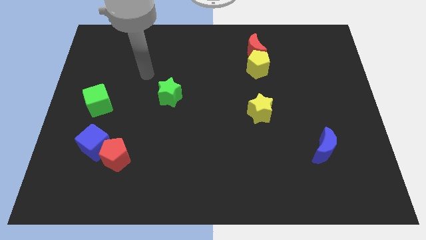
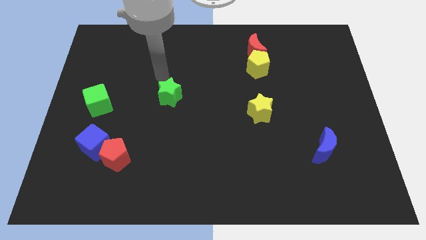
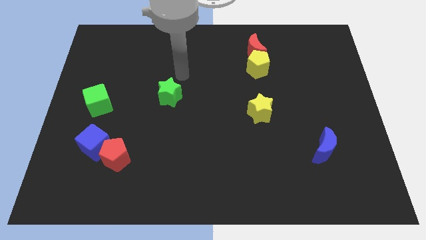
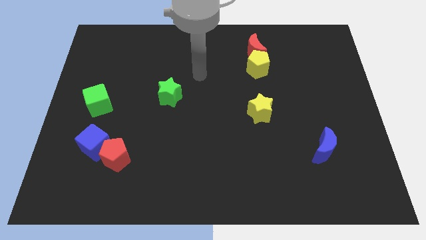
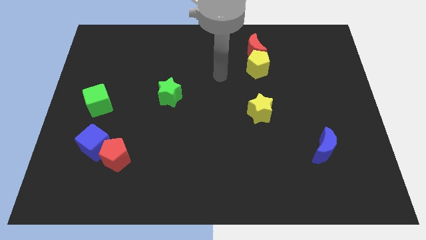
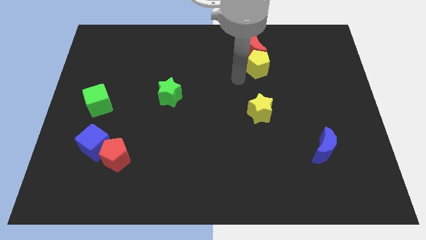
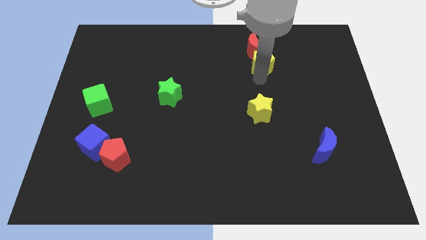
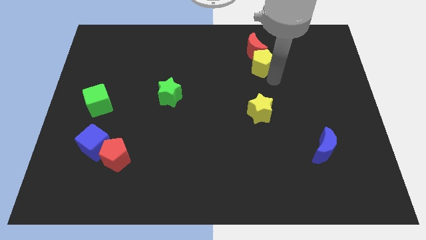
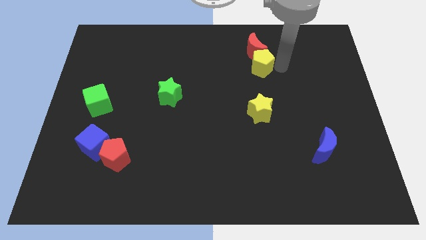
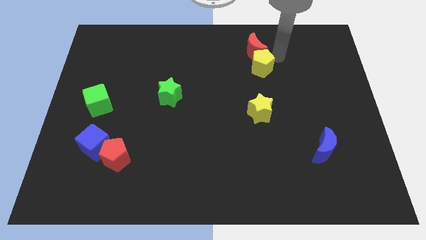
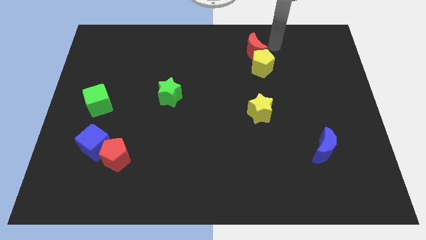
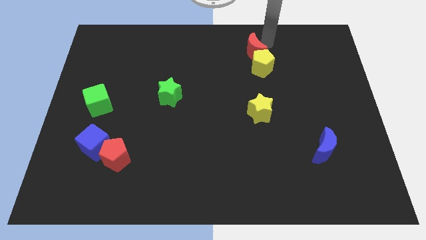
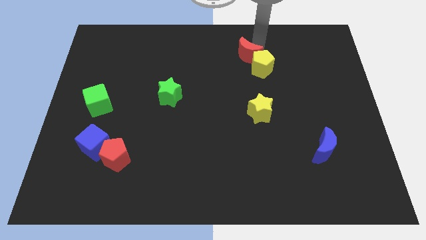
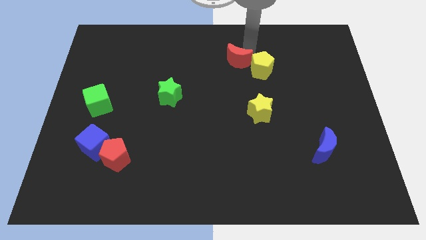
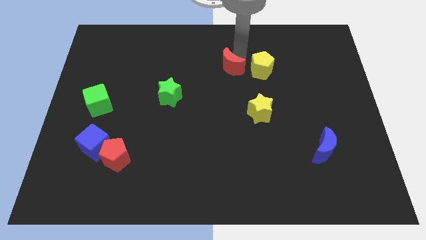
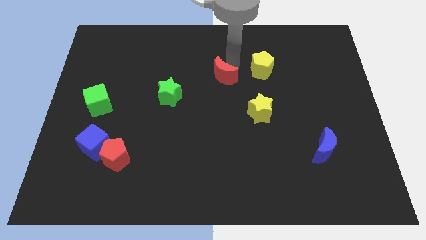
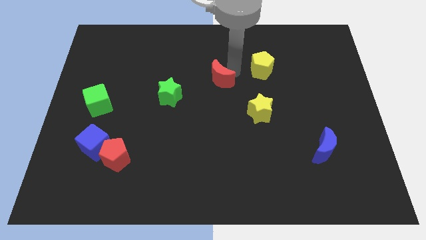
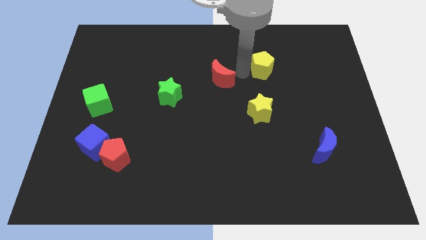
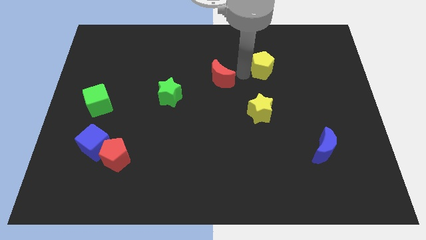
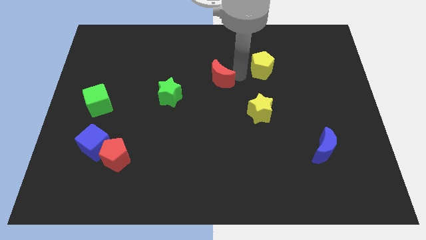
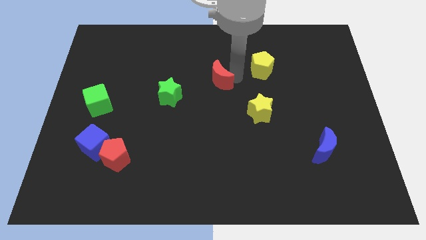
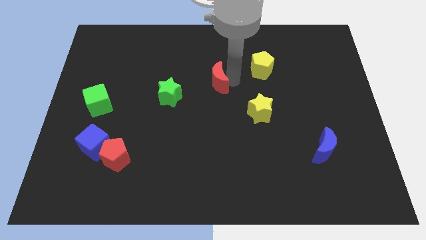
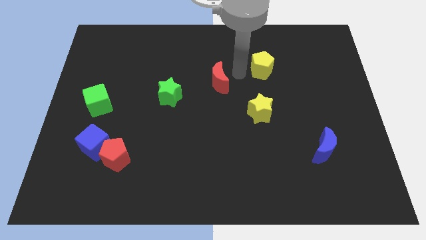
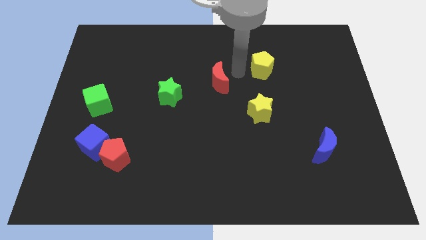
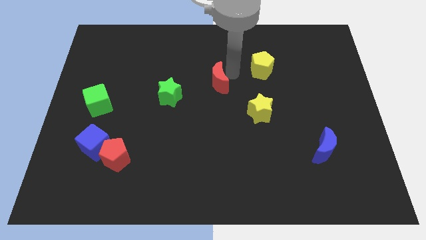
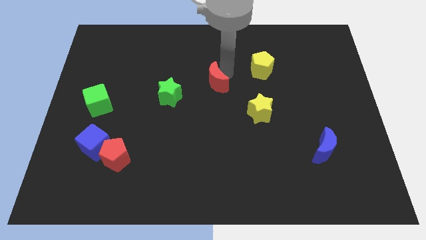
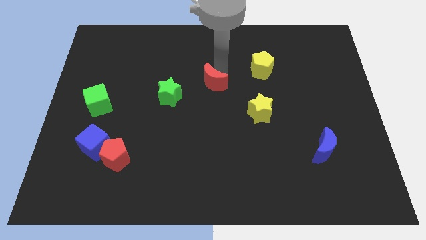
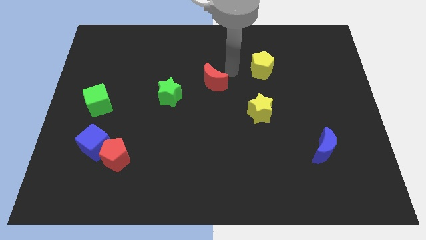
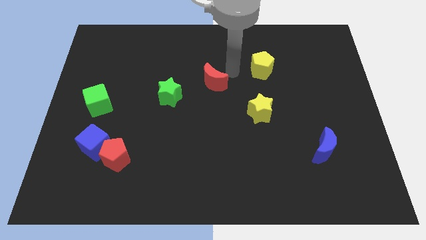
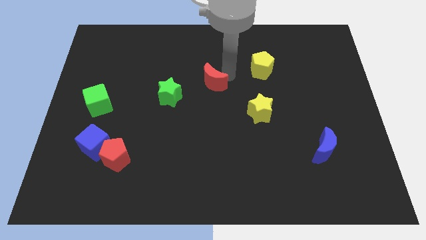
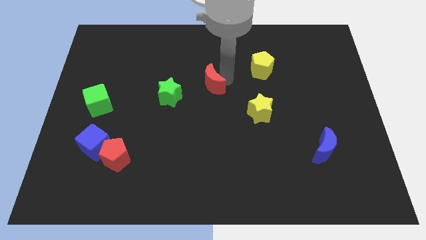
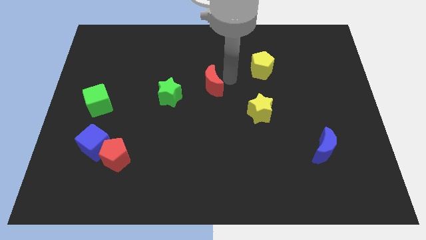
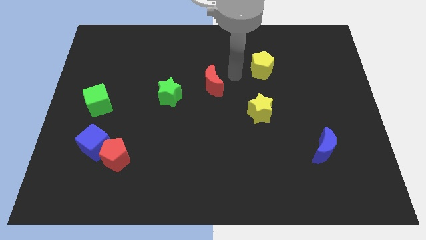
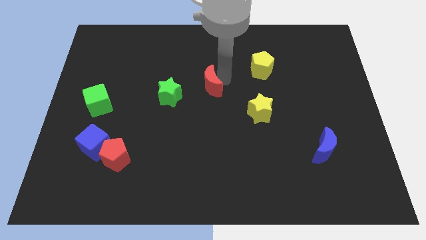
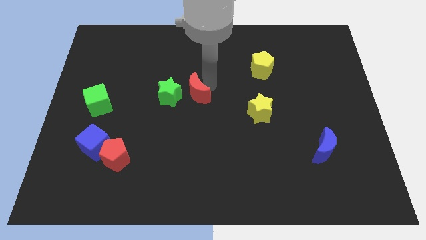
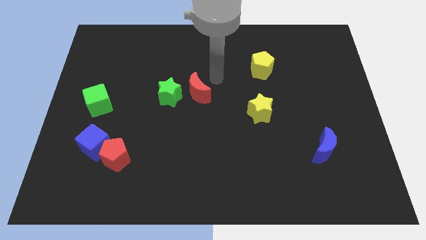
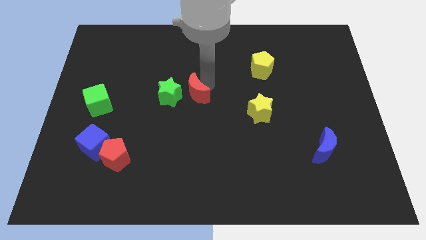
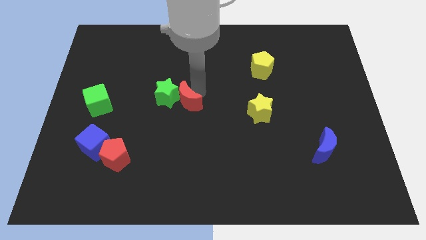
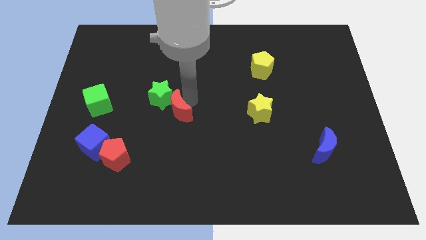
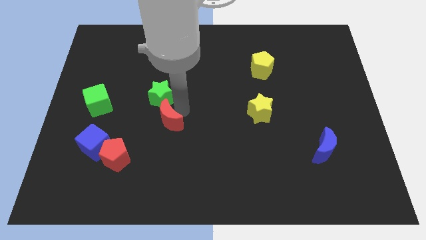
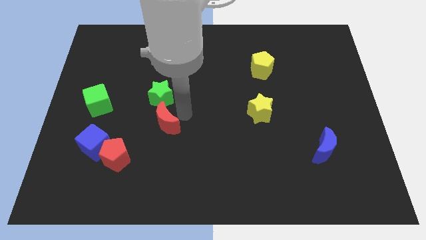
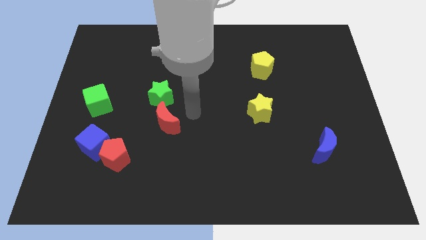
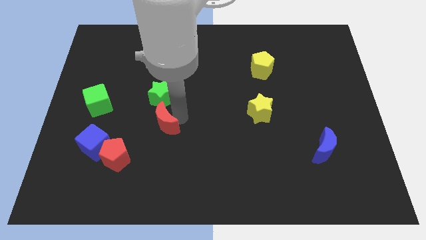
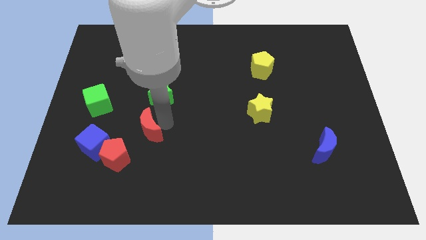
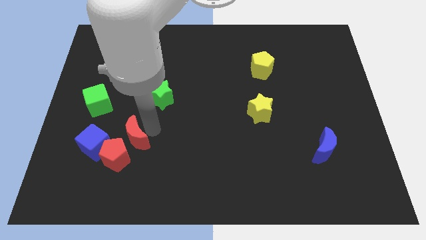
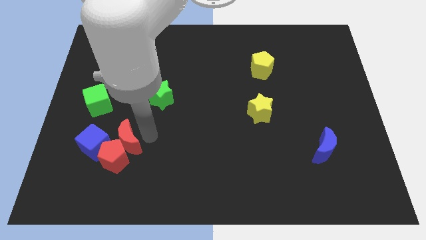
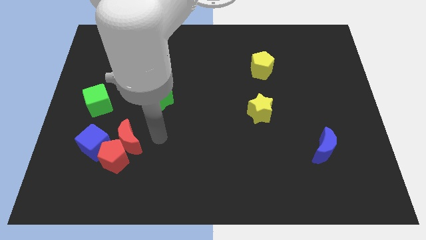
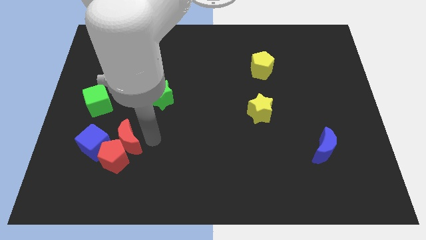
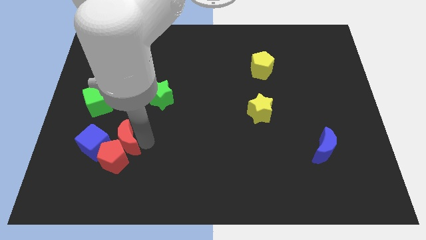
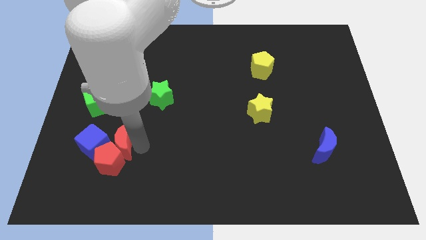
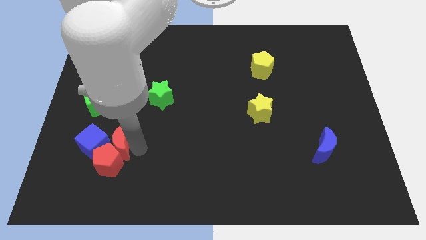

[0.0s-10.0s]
push the red moon close to the blue cube

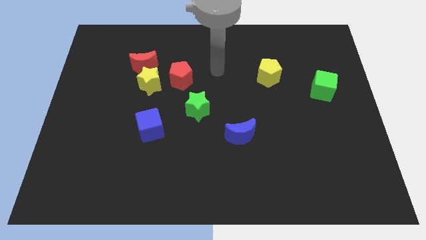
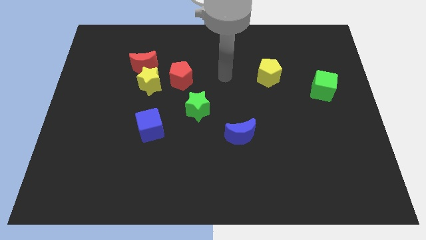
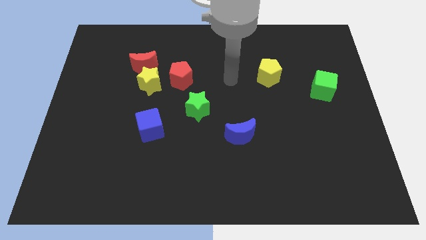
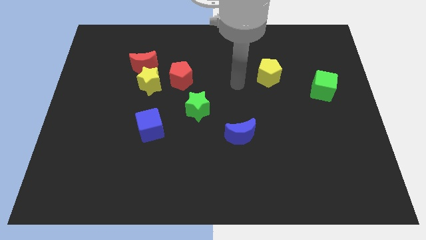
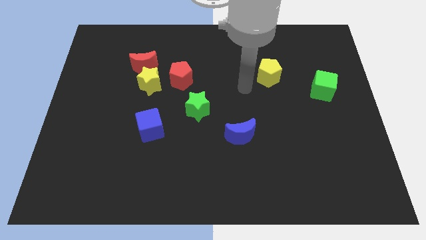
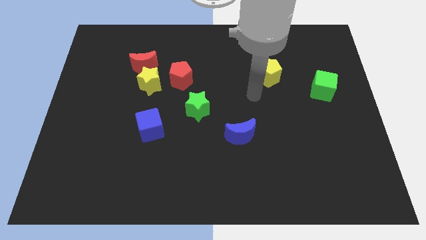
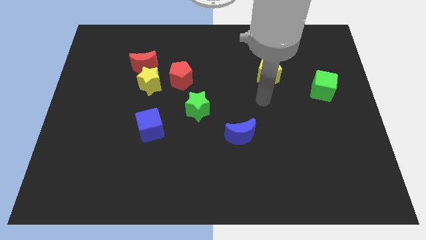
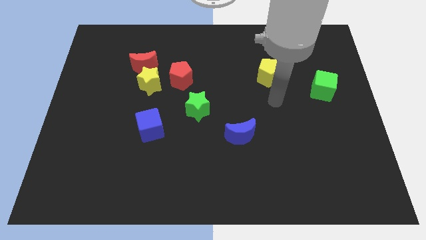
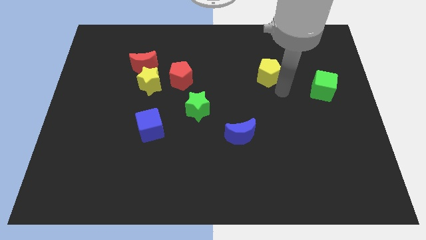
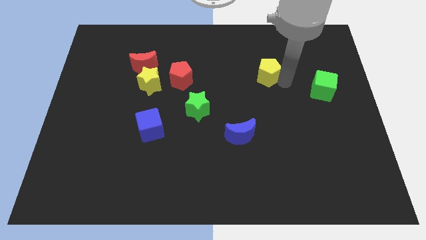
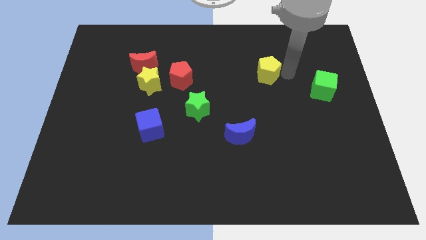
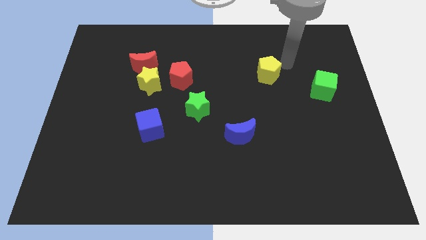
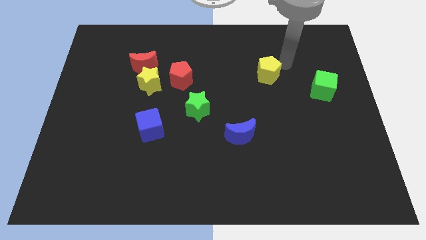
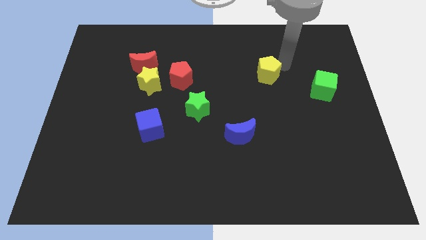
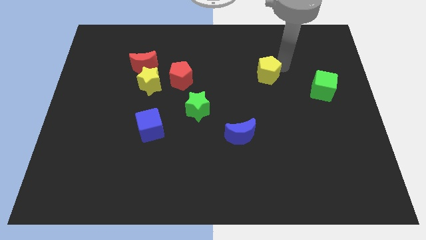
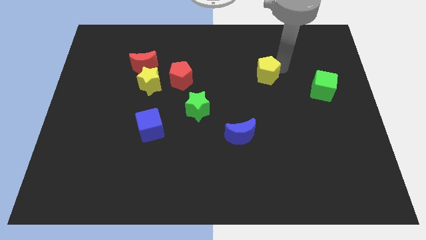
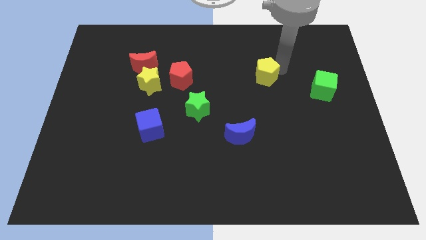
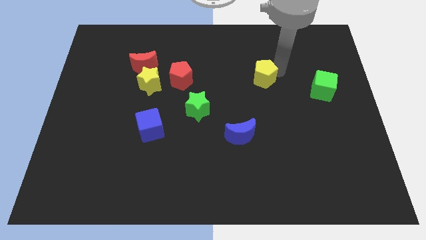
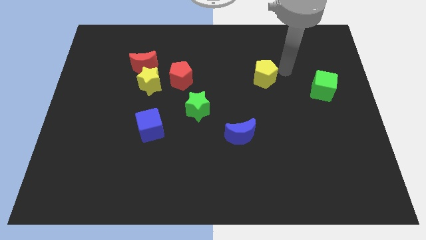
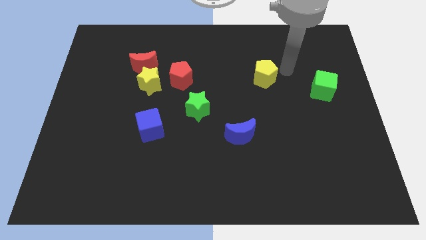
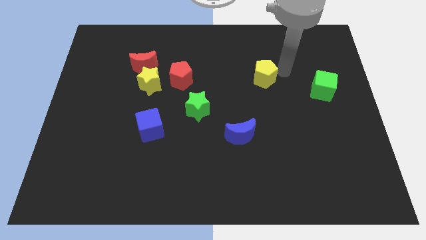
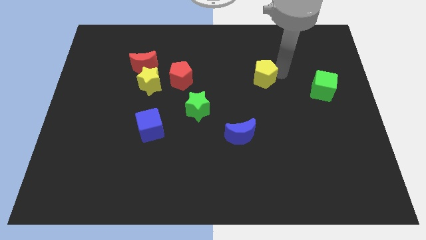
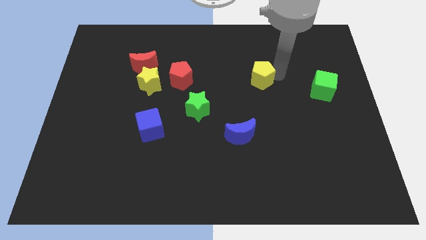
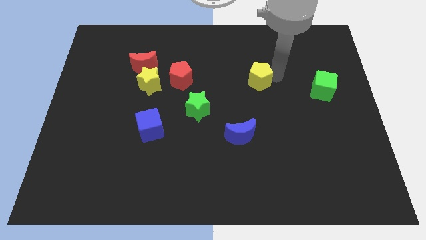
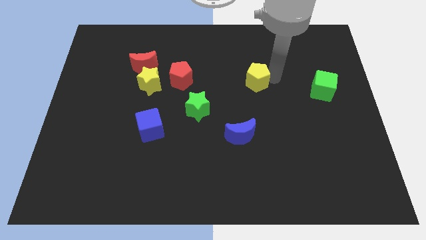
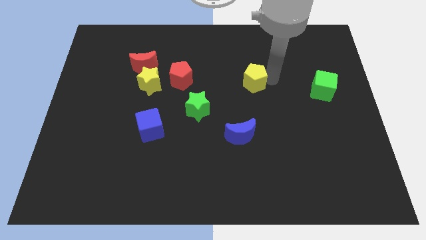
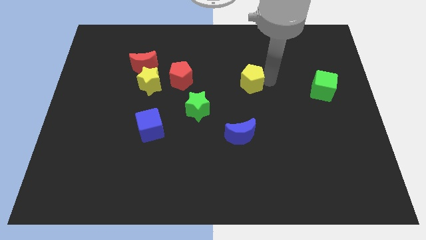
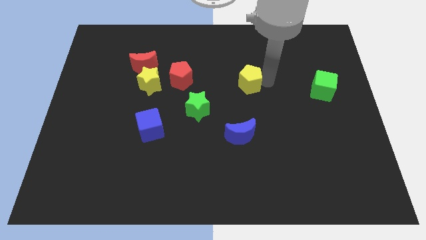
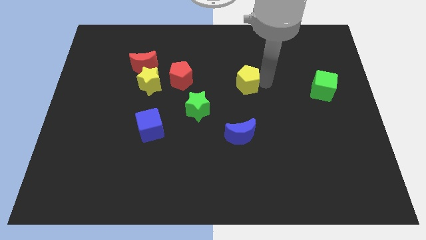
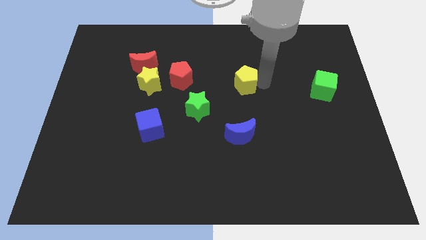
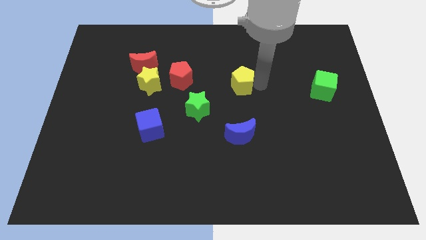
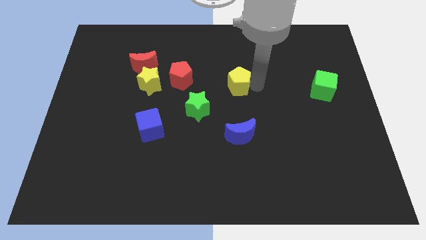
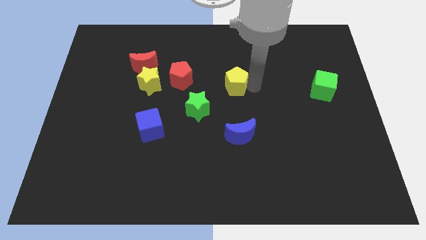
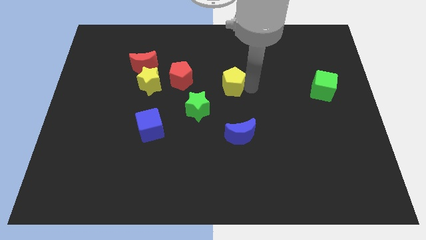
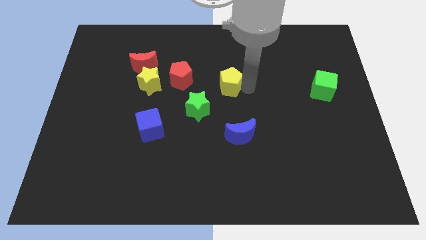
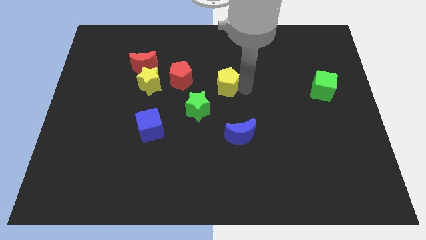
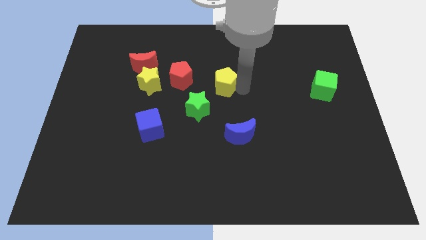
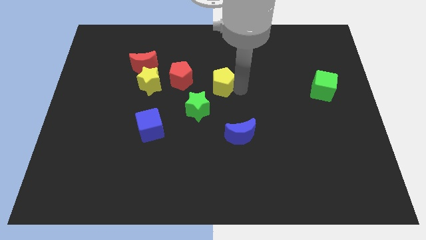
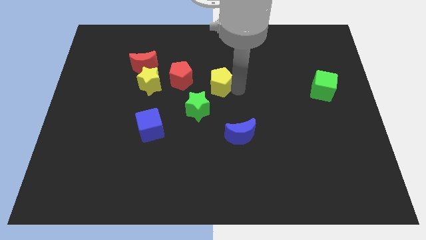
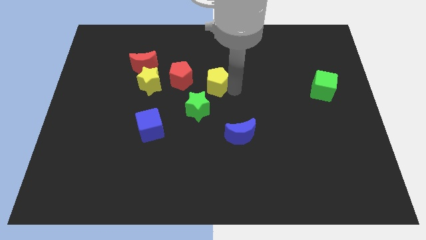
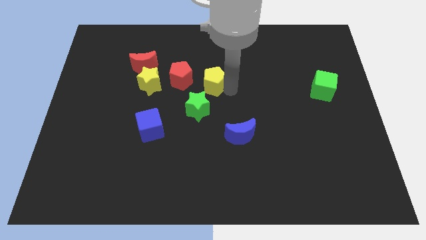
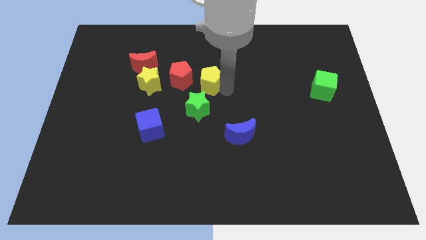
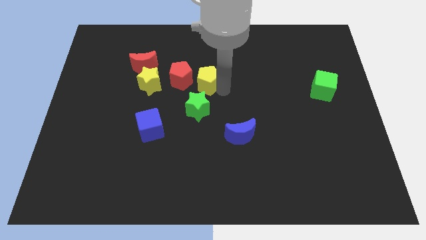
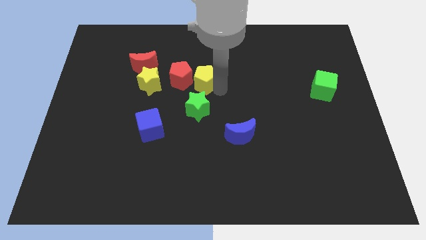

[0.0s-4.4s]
move the yellow pentagon close to the red pentagon
